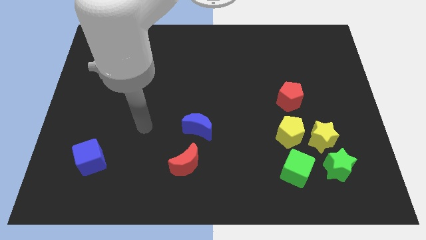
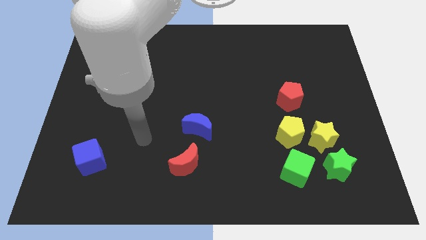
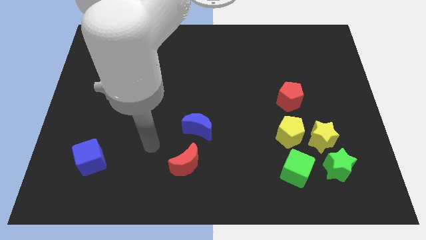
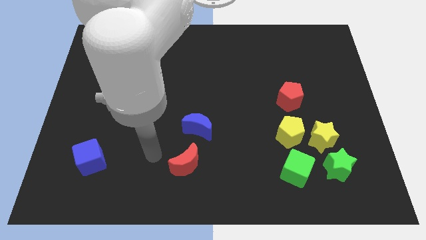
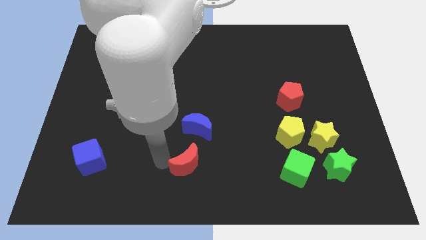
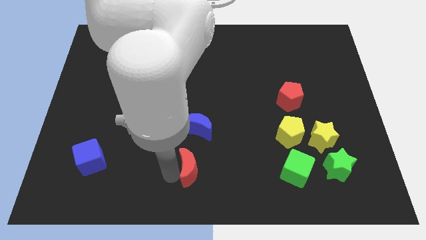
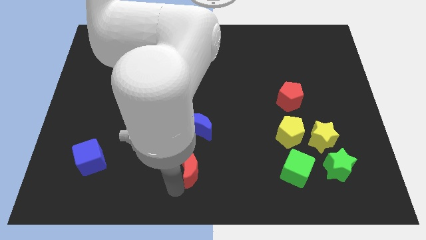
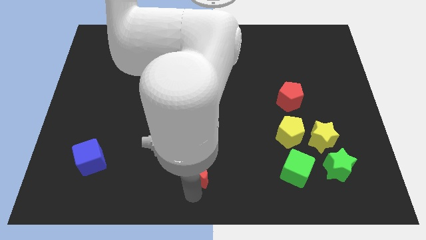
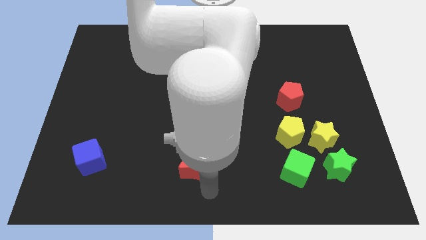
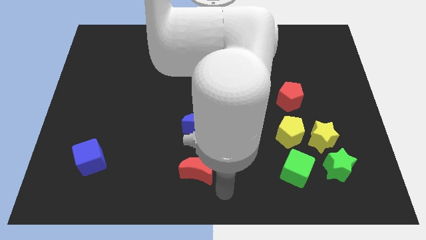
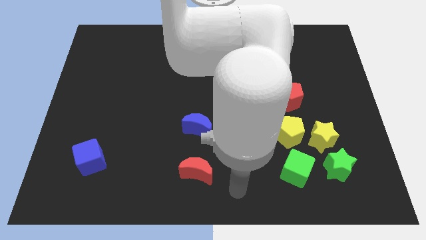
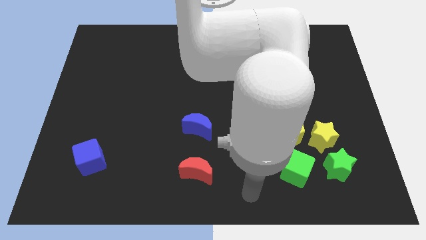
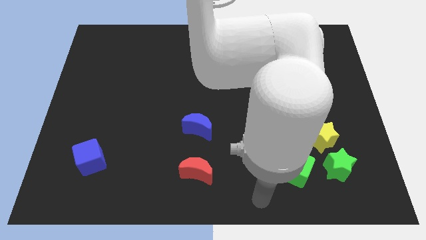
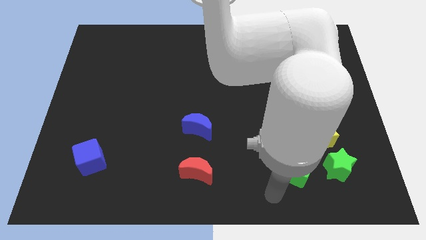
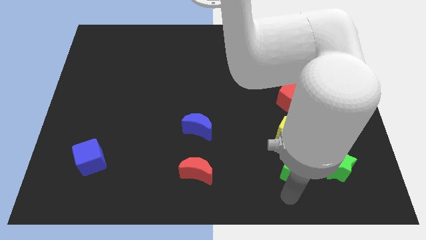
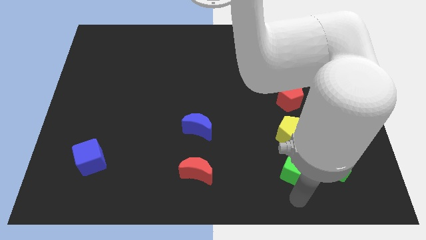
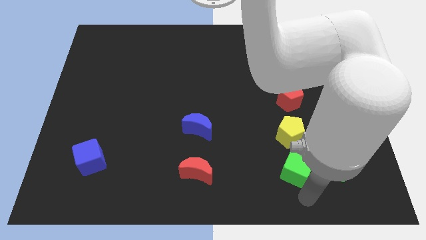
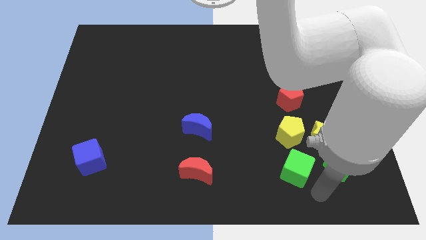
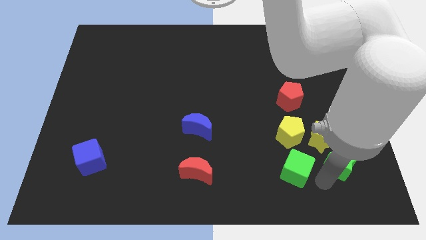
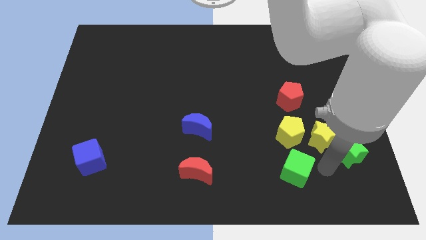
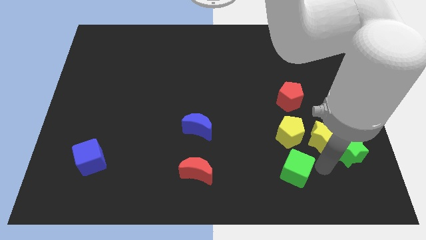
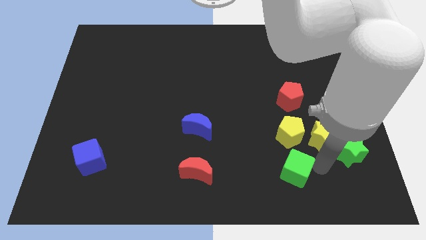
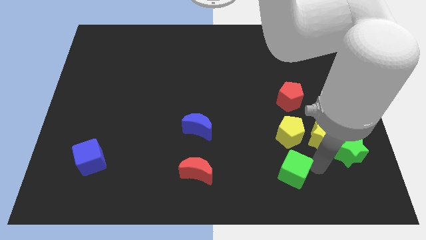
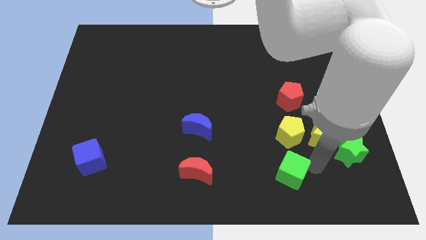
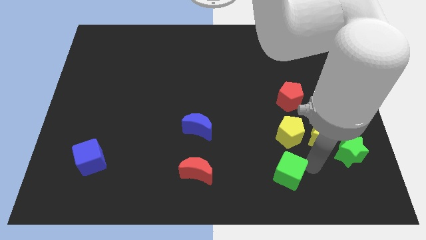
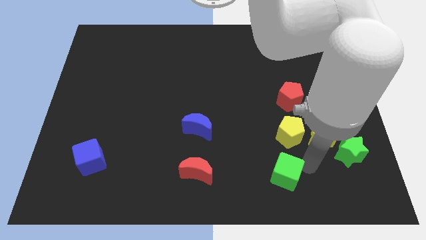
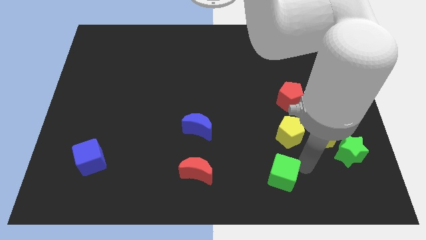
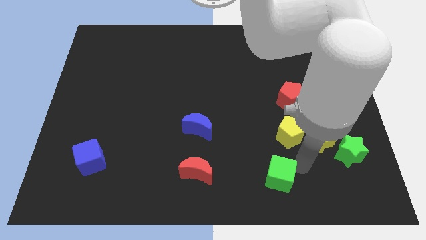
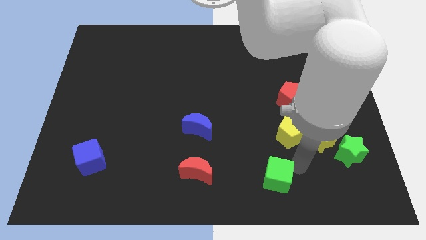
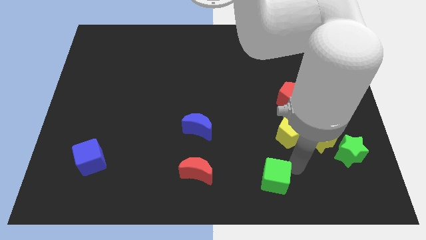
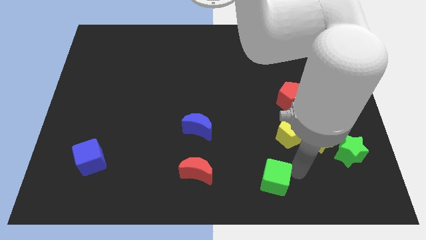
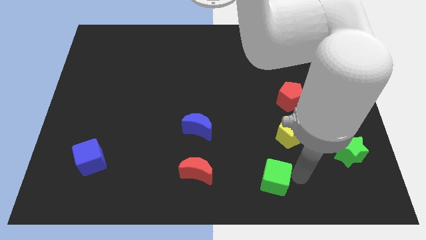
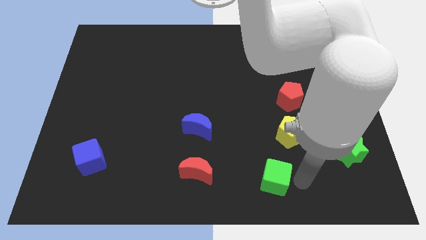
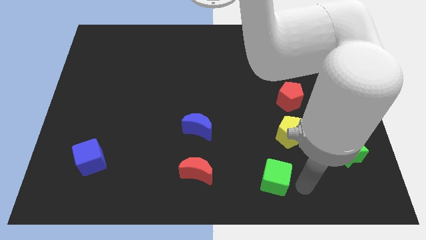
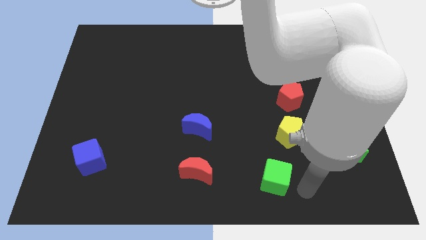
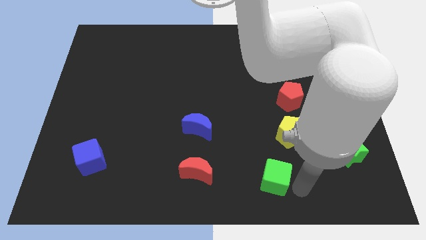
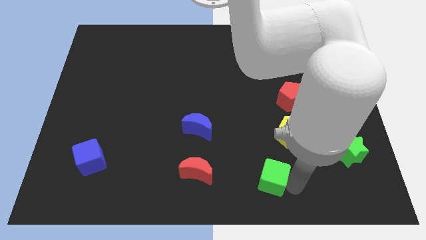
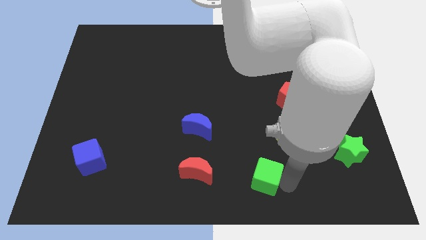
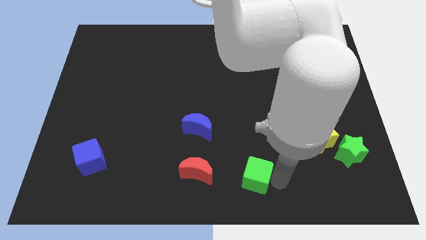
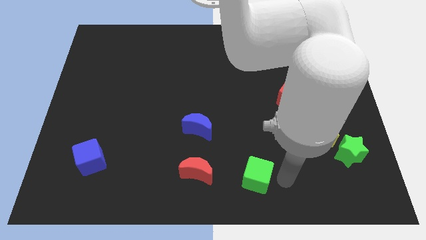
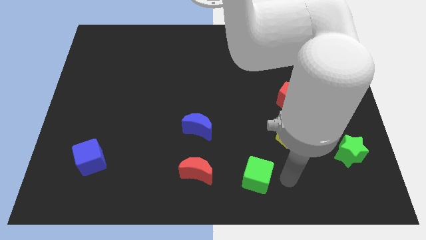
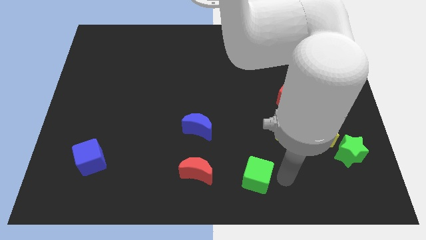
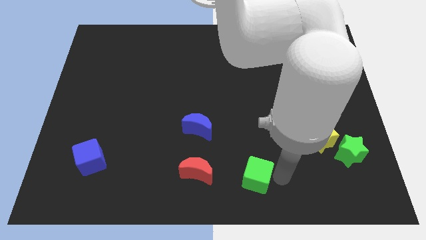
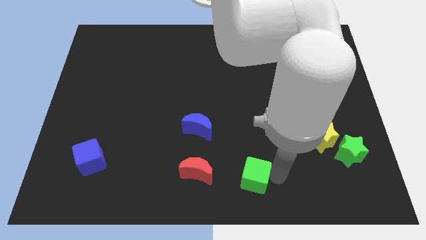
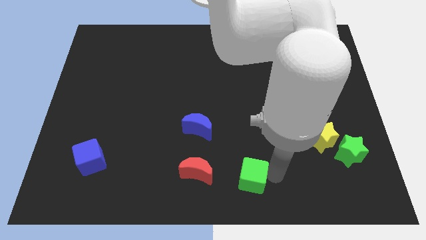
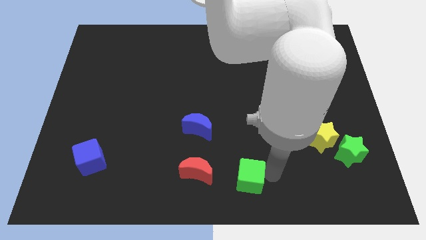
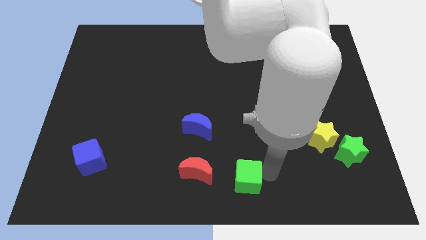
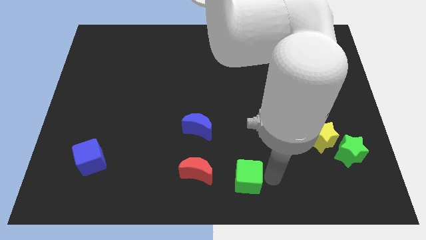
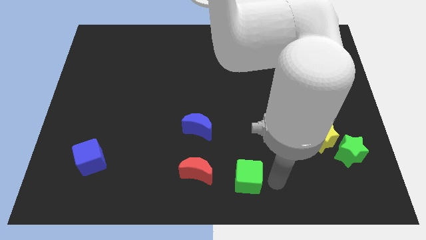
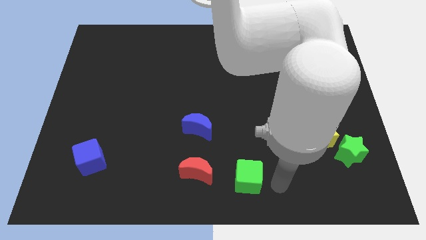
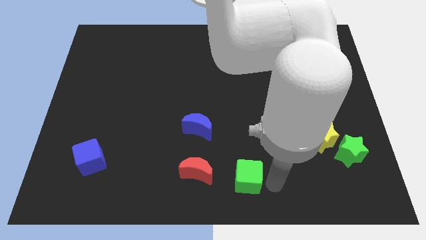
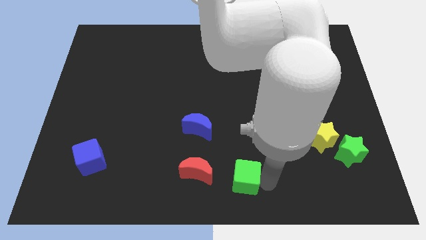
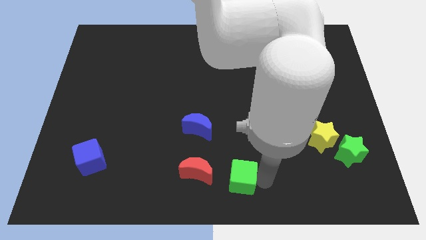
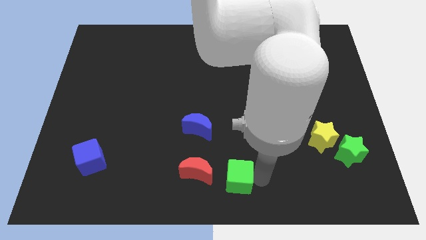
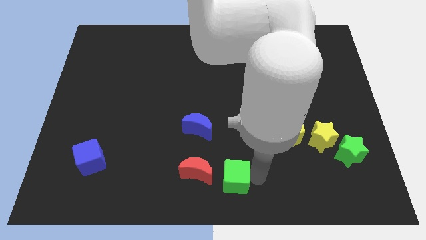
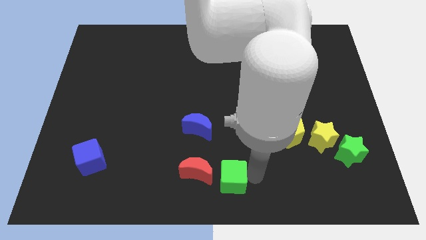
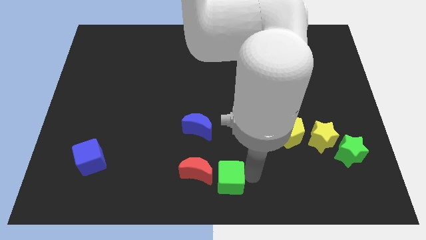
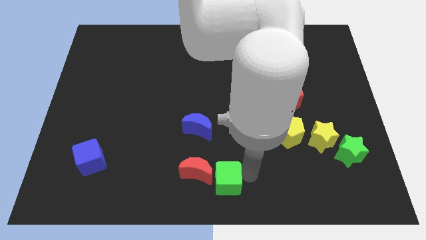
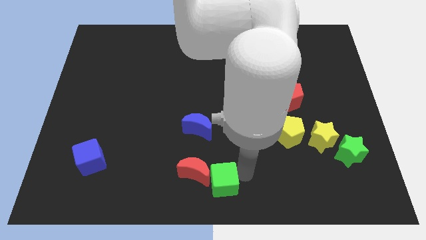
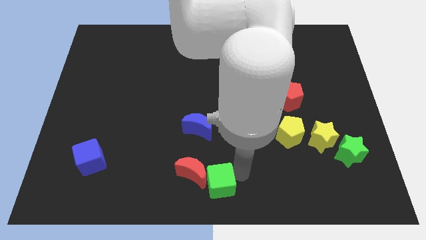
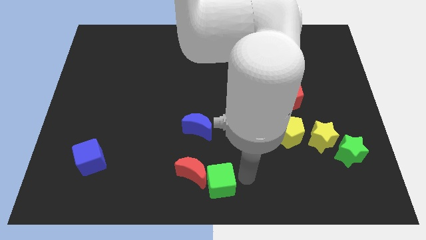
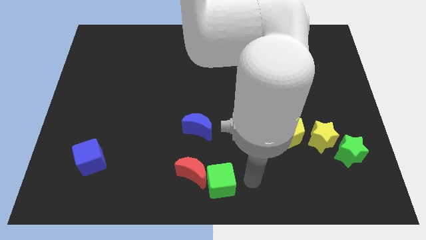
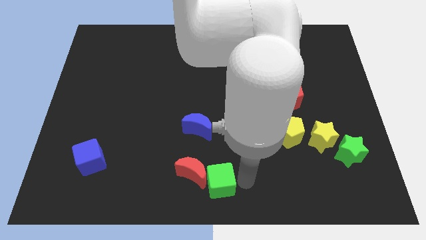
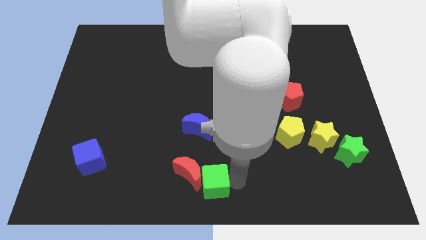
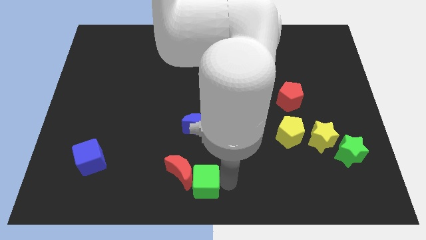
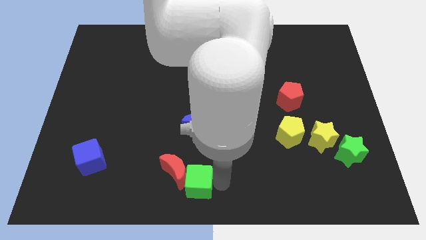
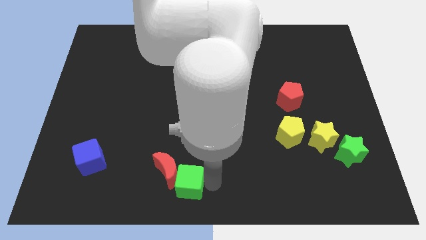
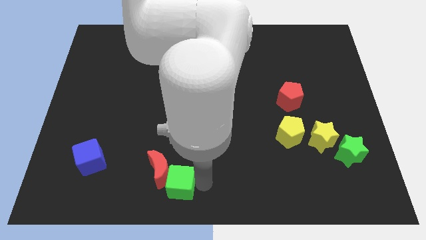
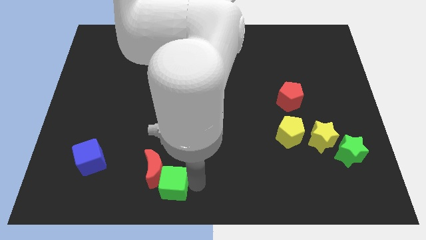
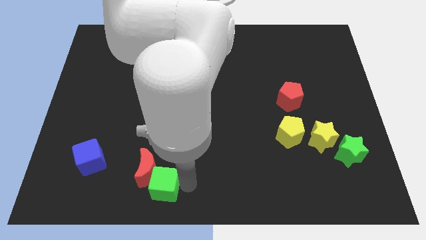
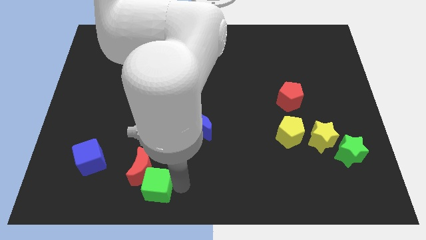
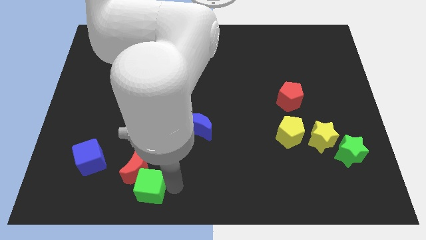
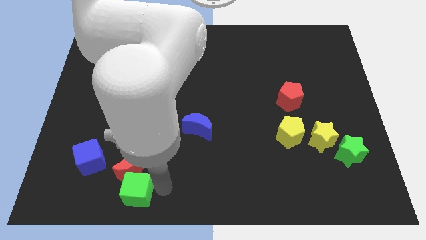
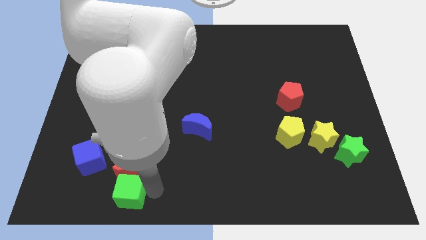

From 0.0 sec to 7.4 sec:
move the green cube diagonally down and to the right of the blue cube
